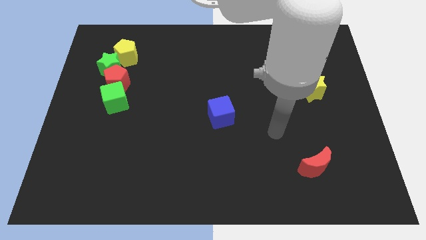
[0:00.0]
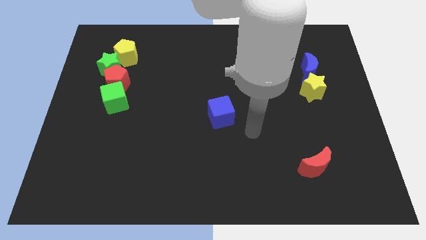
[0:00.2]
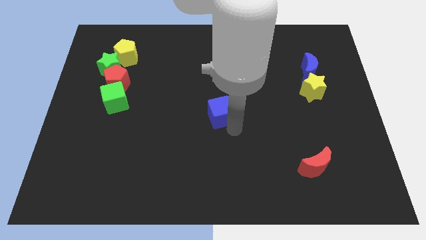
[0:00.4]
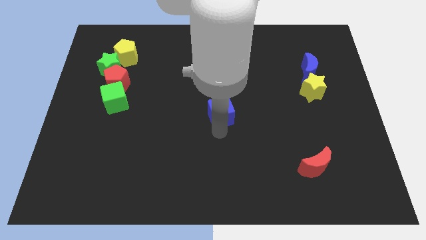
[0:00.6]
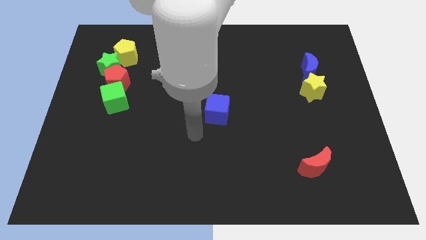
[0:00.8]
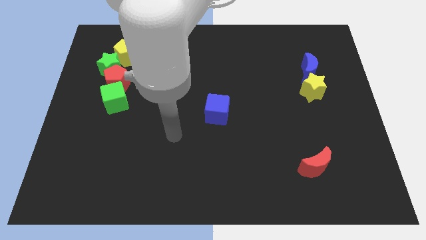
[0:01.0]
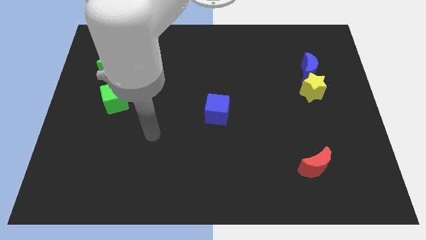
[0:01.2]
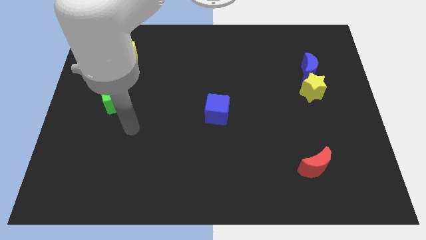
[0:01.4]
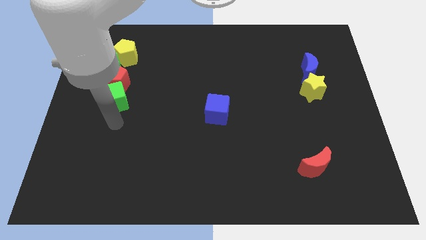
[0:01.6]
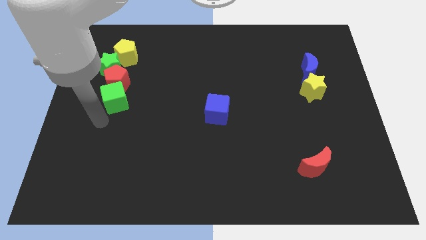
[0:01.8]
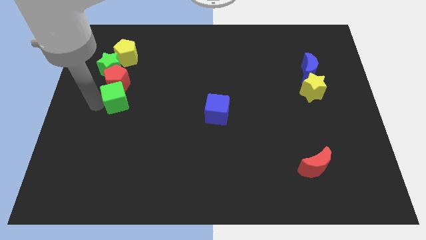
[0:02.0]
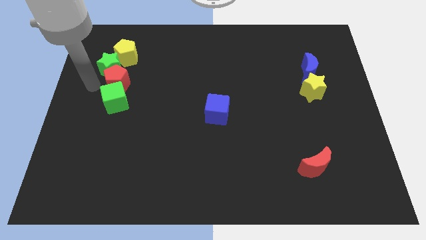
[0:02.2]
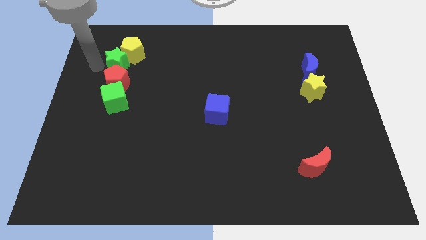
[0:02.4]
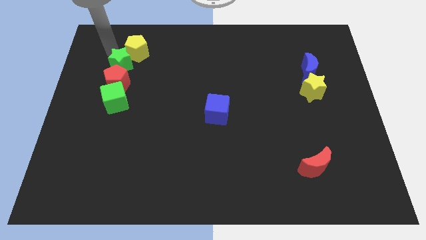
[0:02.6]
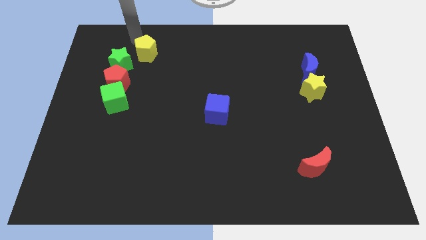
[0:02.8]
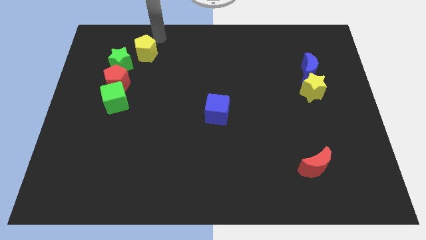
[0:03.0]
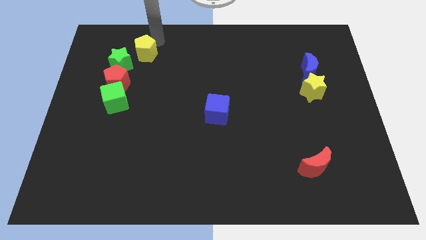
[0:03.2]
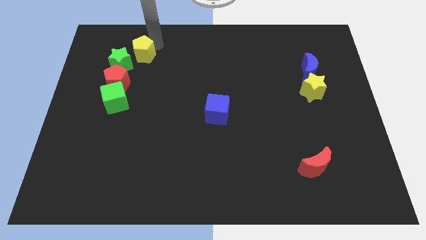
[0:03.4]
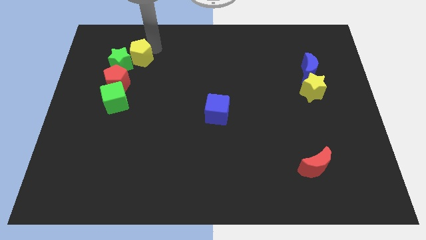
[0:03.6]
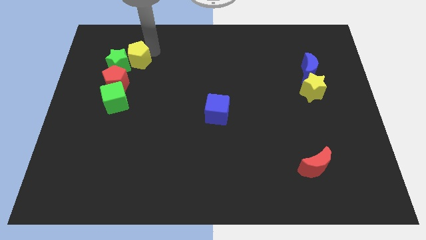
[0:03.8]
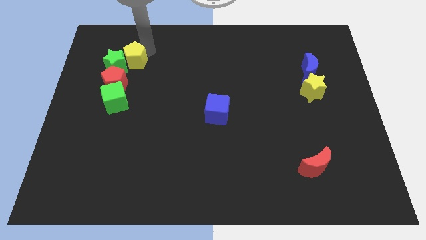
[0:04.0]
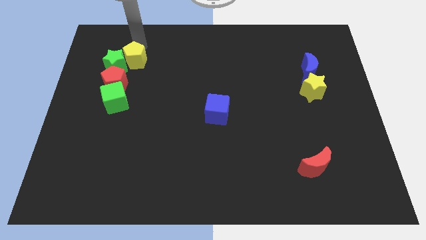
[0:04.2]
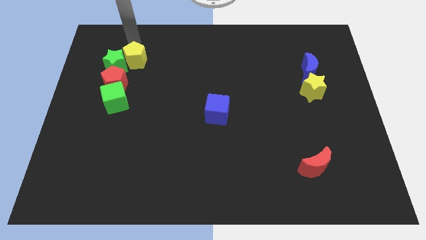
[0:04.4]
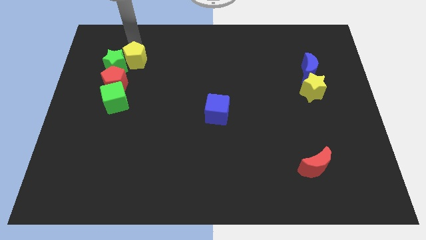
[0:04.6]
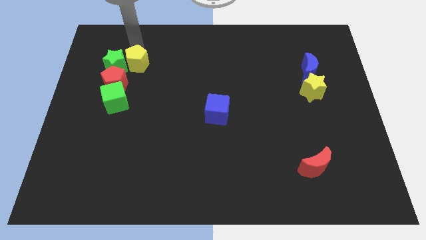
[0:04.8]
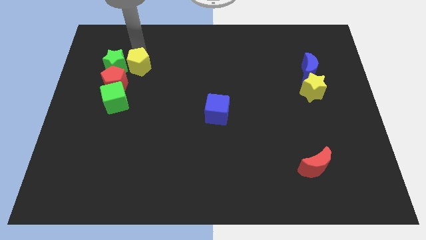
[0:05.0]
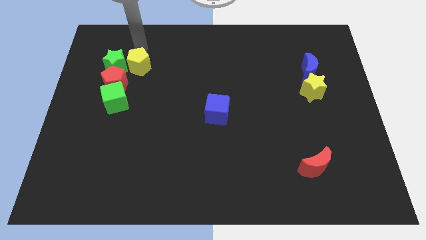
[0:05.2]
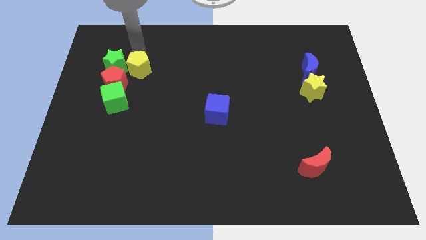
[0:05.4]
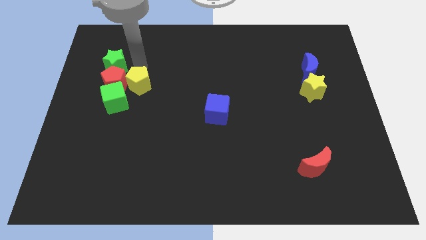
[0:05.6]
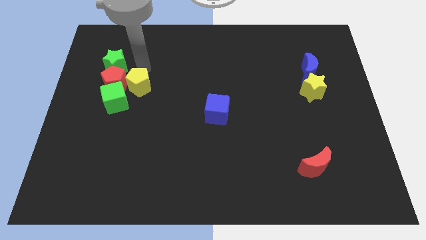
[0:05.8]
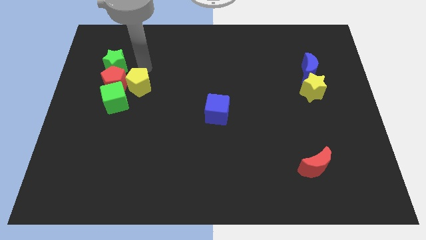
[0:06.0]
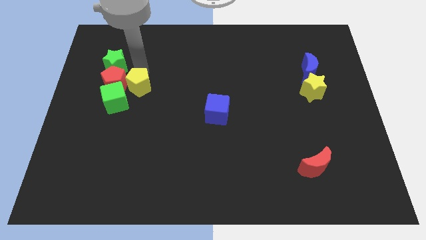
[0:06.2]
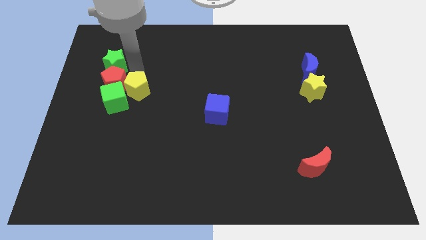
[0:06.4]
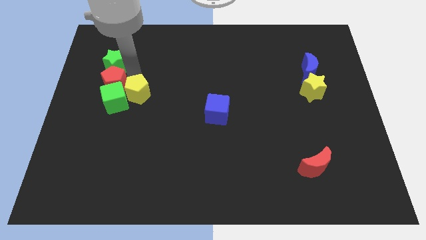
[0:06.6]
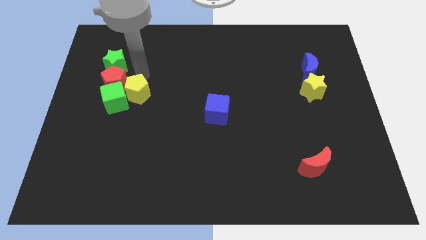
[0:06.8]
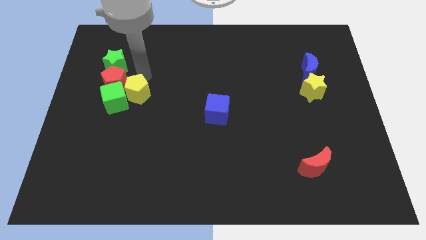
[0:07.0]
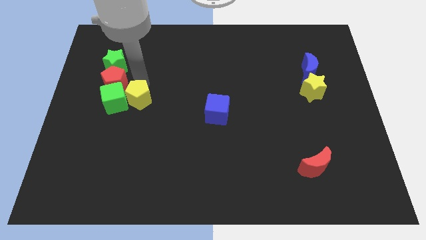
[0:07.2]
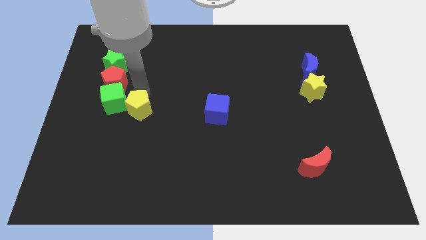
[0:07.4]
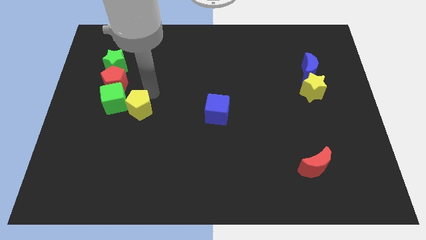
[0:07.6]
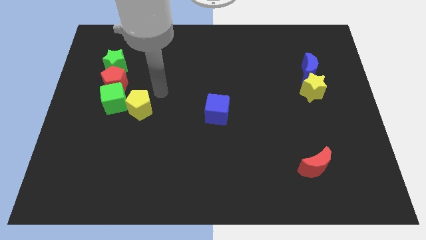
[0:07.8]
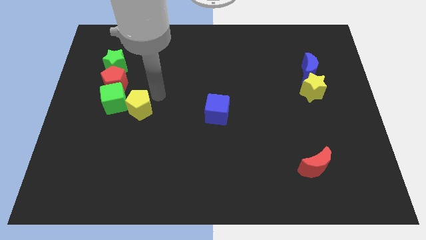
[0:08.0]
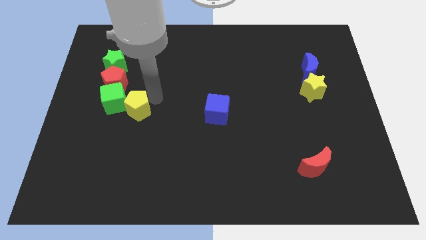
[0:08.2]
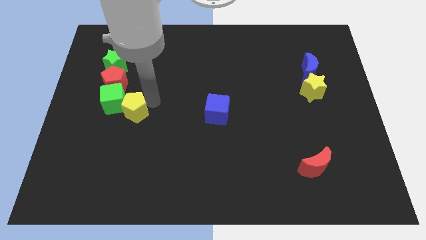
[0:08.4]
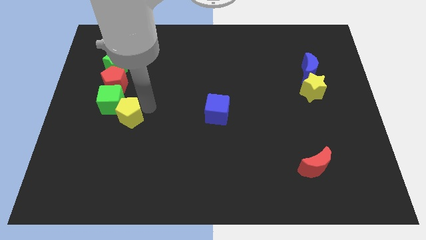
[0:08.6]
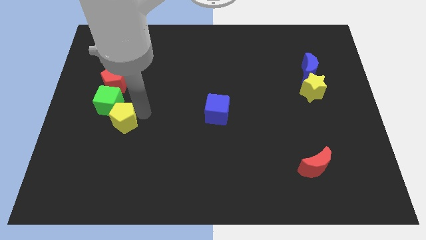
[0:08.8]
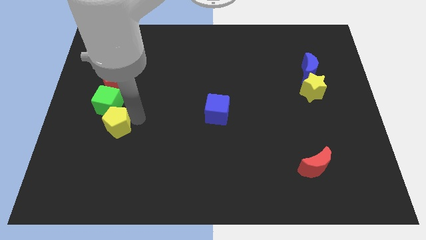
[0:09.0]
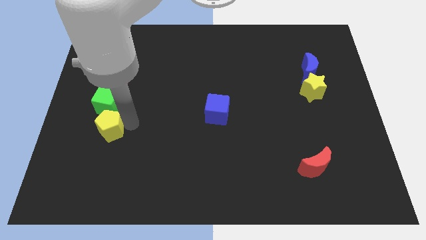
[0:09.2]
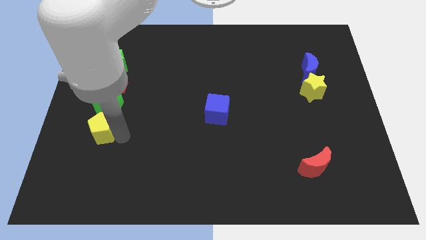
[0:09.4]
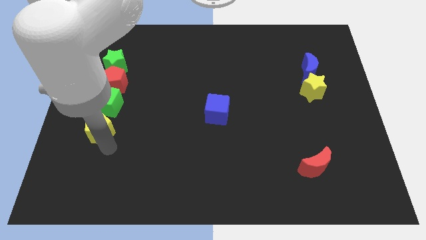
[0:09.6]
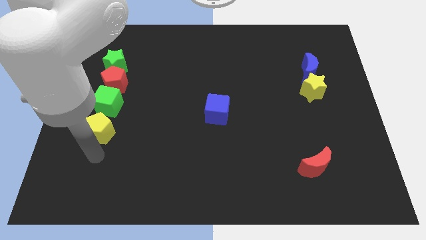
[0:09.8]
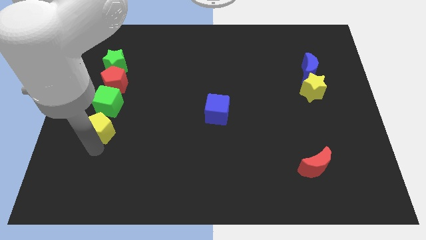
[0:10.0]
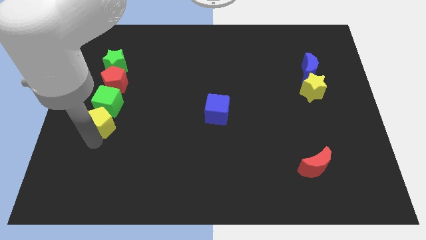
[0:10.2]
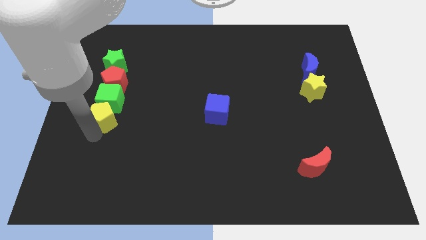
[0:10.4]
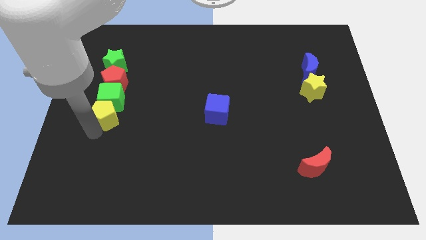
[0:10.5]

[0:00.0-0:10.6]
slide the yellow pentagon to the bottom side of the green star

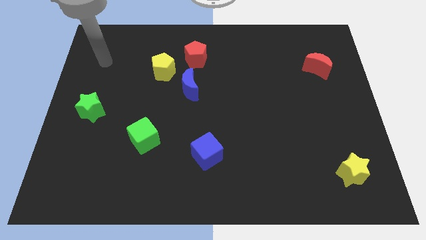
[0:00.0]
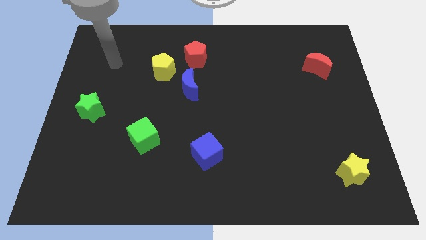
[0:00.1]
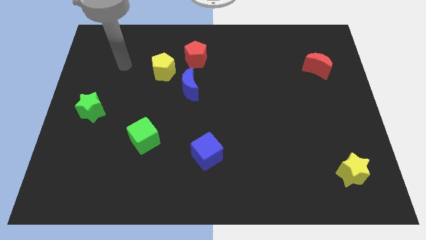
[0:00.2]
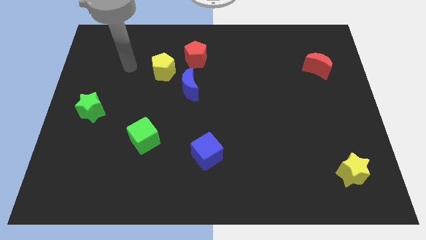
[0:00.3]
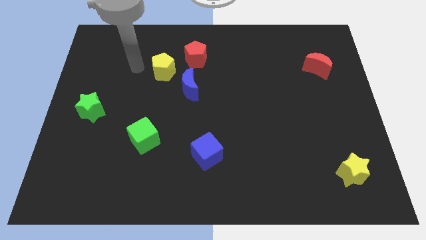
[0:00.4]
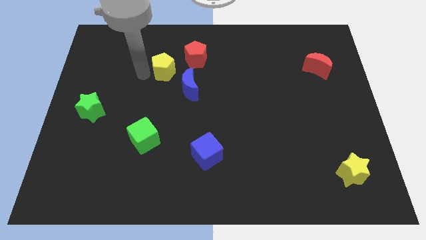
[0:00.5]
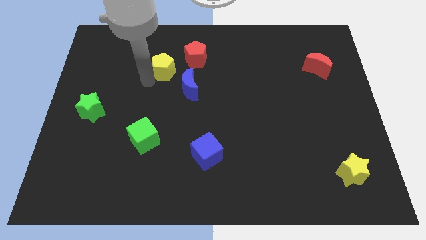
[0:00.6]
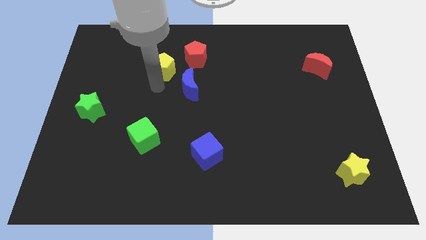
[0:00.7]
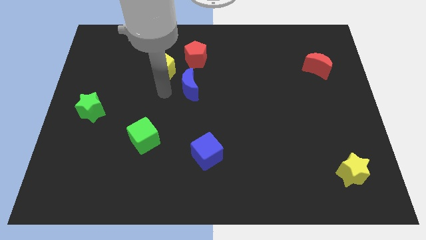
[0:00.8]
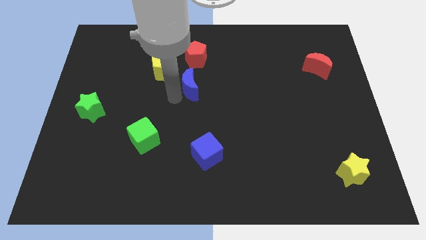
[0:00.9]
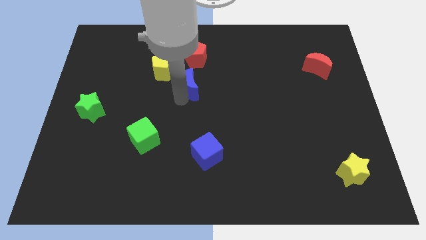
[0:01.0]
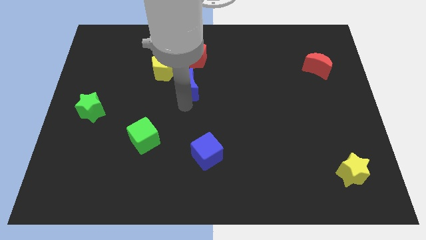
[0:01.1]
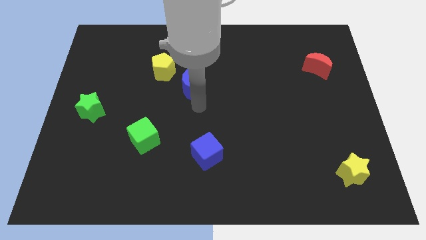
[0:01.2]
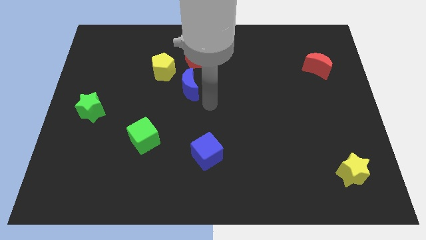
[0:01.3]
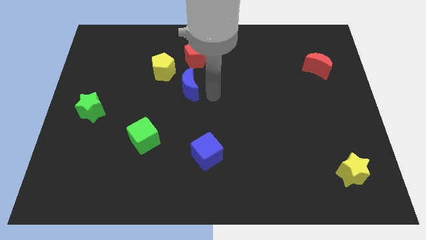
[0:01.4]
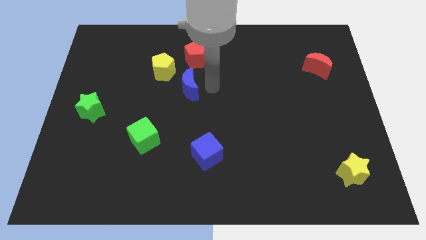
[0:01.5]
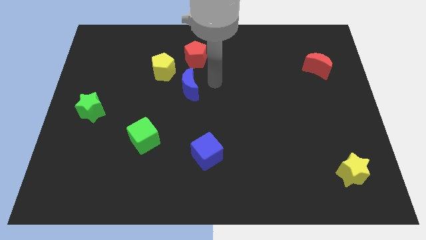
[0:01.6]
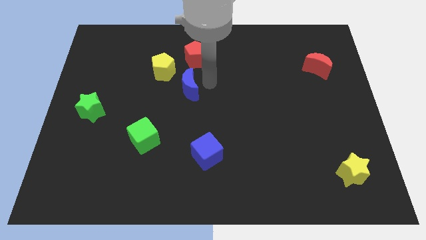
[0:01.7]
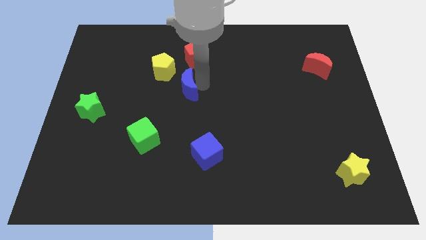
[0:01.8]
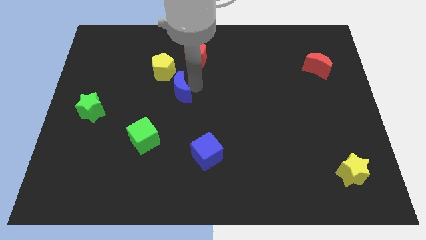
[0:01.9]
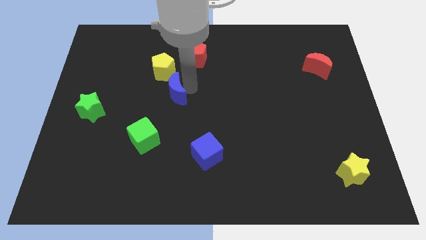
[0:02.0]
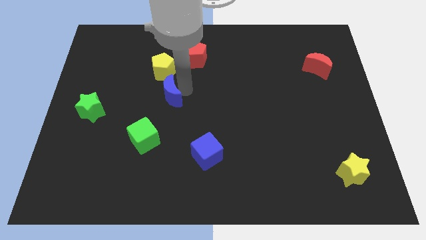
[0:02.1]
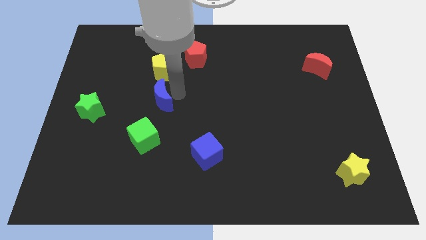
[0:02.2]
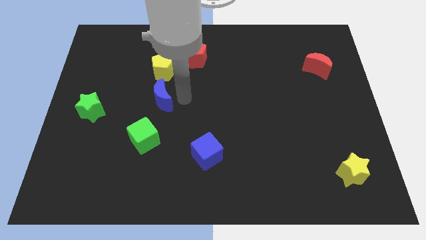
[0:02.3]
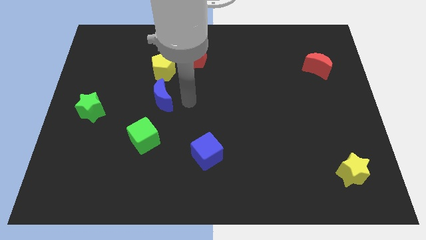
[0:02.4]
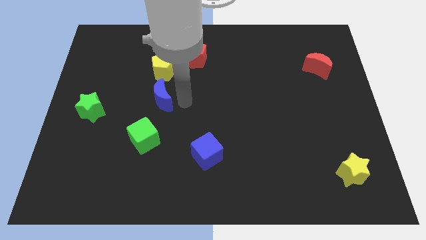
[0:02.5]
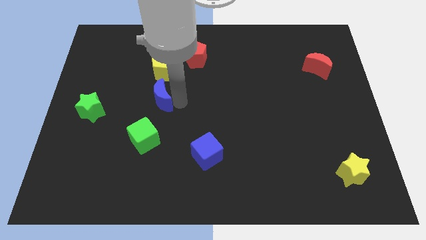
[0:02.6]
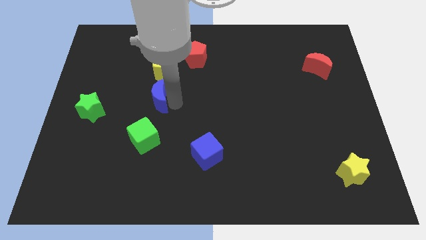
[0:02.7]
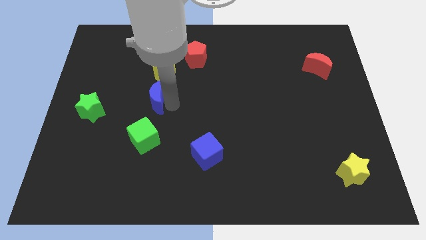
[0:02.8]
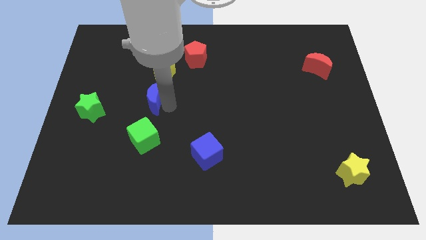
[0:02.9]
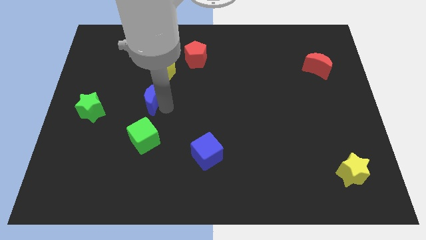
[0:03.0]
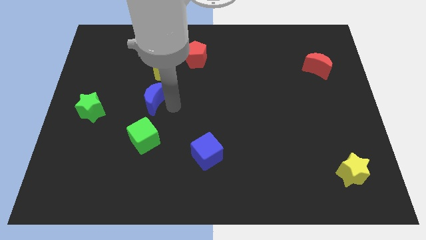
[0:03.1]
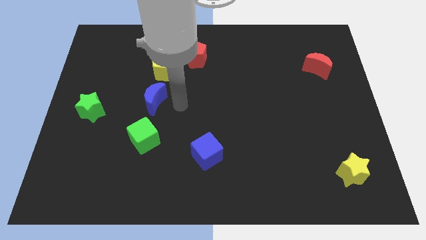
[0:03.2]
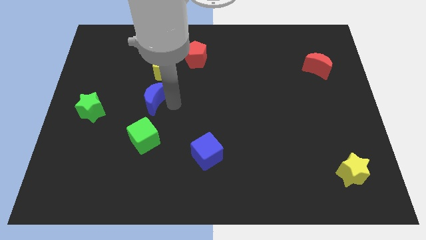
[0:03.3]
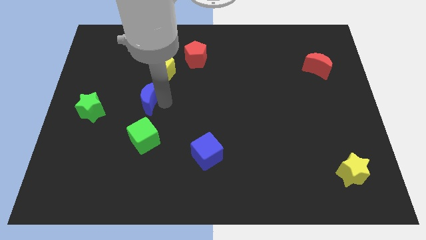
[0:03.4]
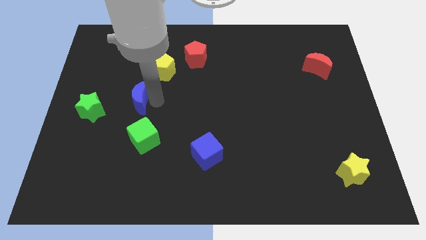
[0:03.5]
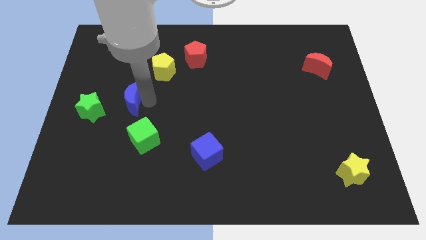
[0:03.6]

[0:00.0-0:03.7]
push the blue moon to the top right side of the green star
